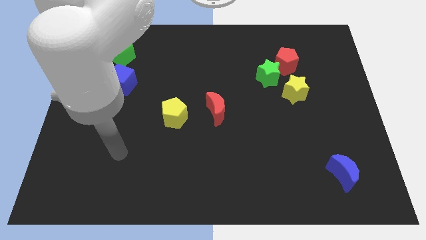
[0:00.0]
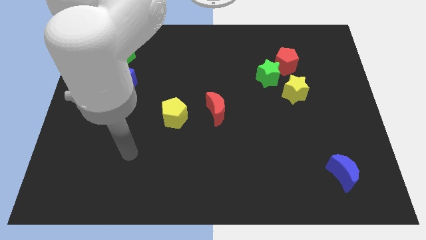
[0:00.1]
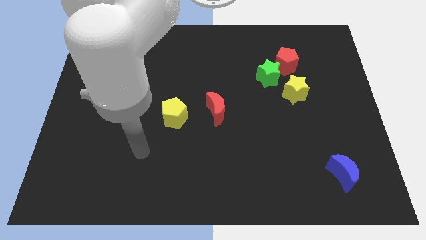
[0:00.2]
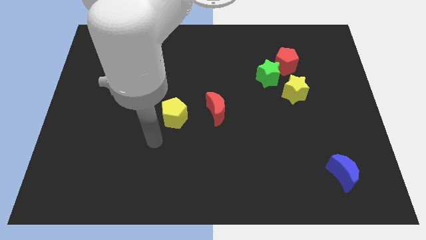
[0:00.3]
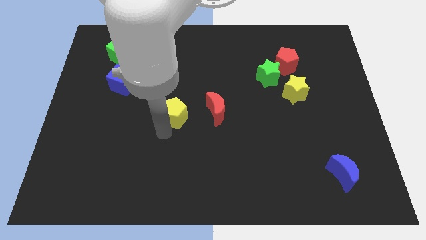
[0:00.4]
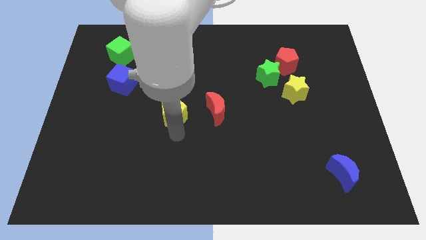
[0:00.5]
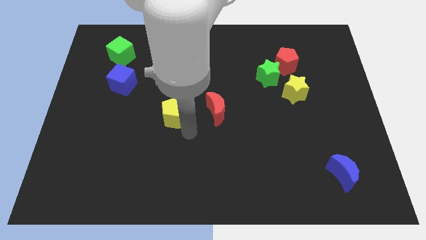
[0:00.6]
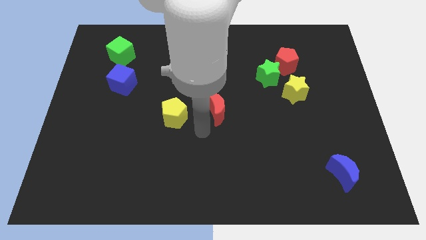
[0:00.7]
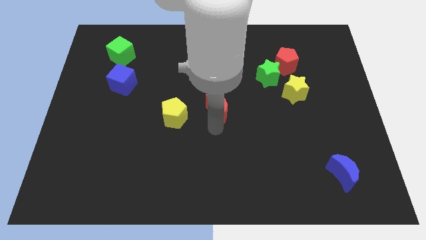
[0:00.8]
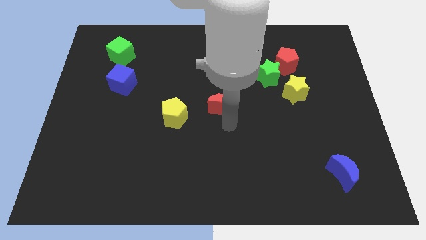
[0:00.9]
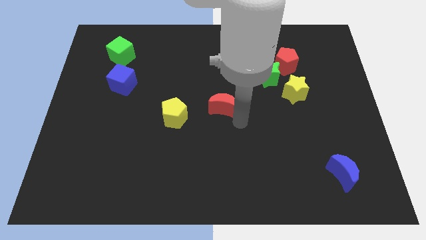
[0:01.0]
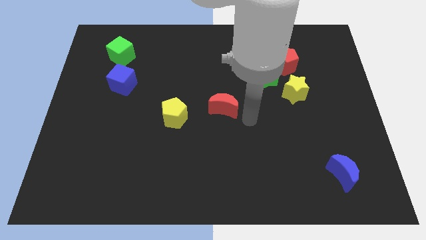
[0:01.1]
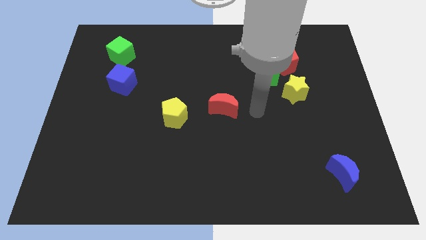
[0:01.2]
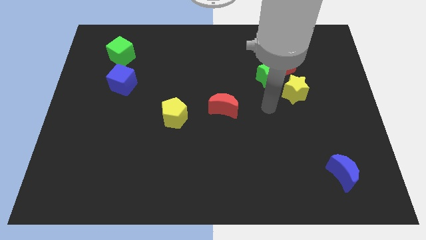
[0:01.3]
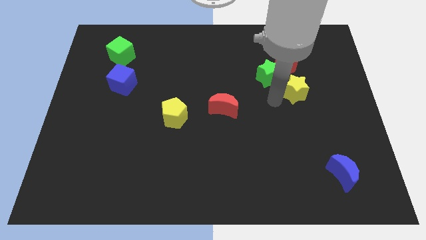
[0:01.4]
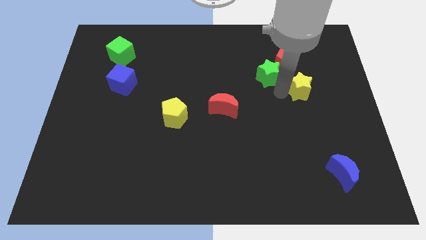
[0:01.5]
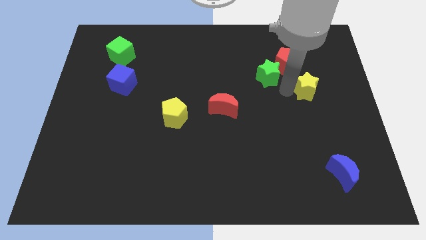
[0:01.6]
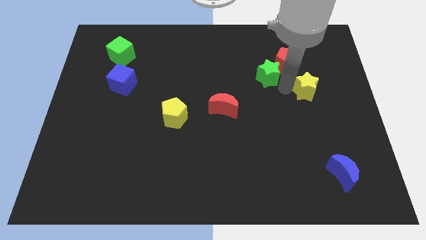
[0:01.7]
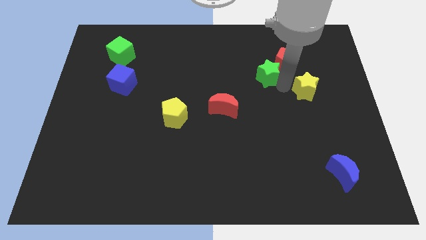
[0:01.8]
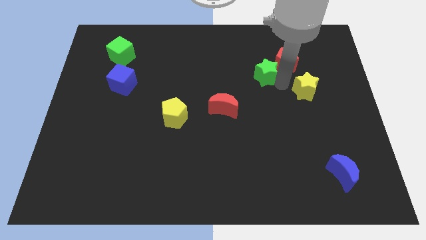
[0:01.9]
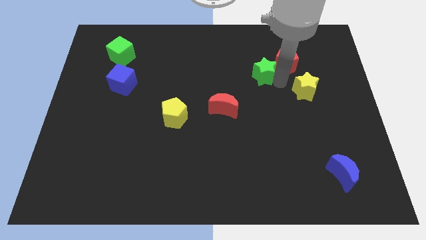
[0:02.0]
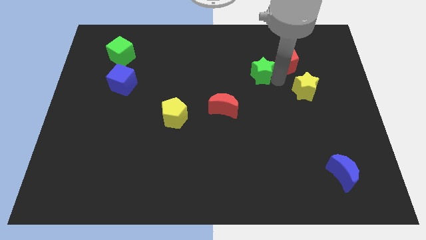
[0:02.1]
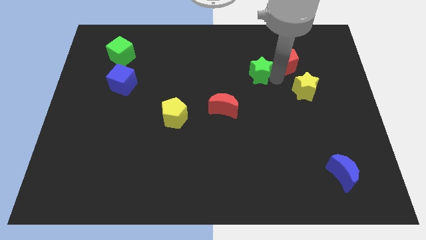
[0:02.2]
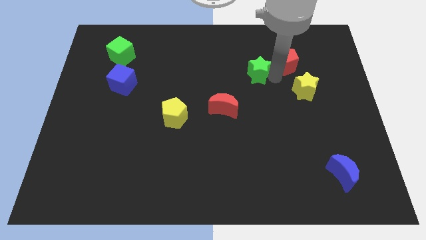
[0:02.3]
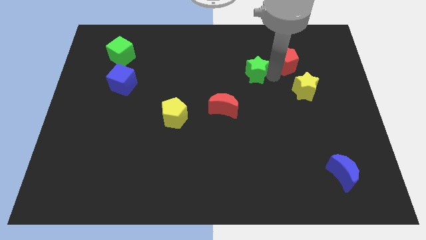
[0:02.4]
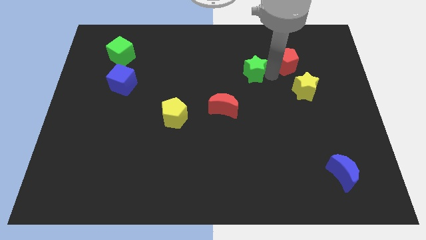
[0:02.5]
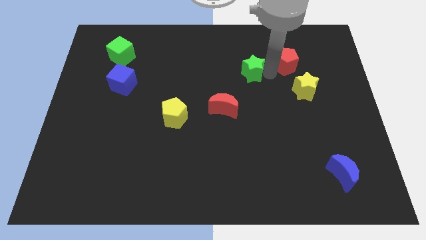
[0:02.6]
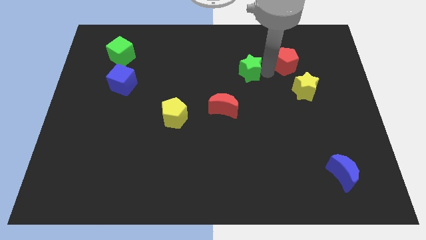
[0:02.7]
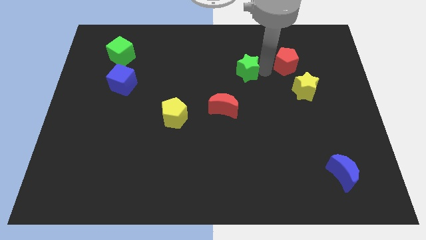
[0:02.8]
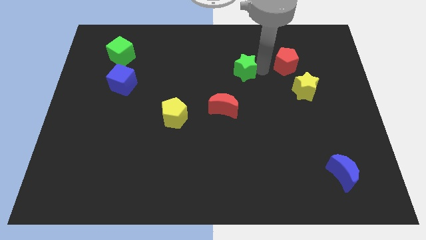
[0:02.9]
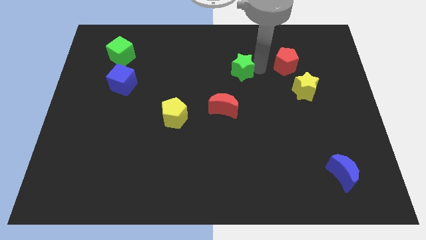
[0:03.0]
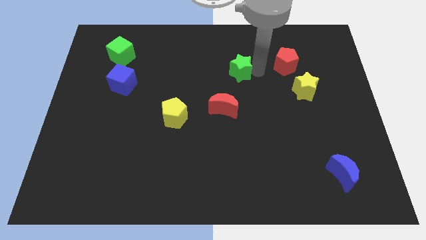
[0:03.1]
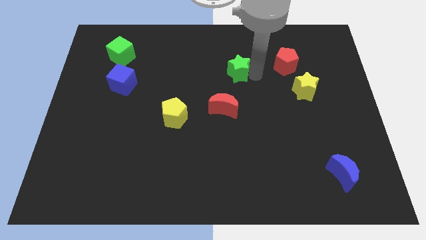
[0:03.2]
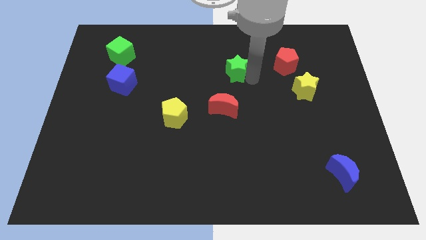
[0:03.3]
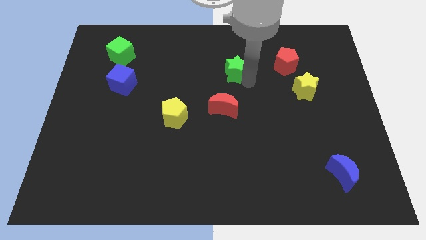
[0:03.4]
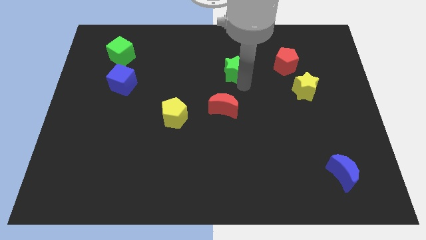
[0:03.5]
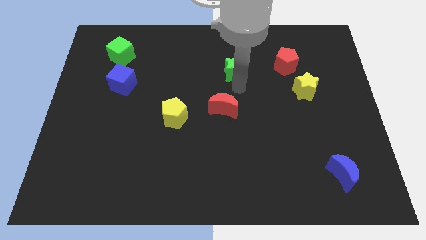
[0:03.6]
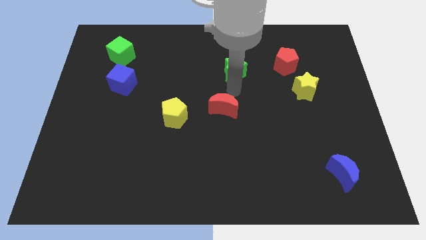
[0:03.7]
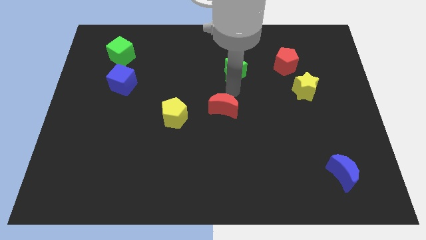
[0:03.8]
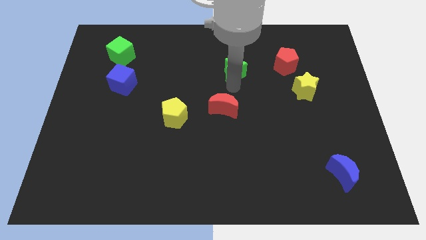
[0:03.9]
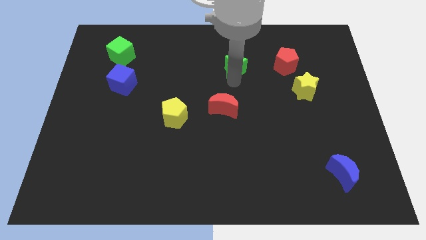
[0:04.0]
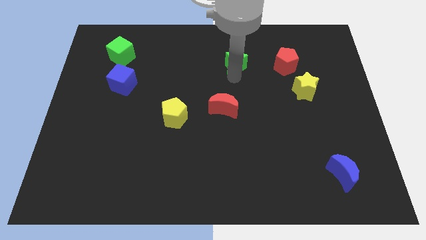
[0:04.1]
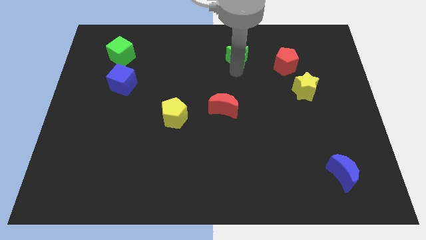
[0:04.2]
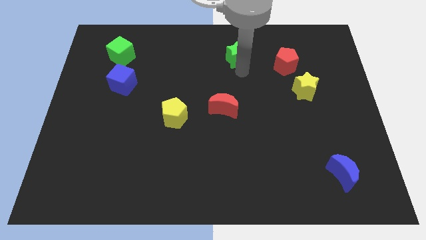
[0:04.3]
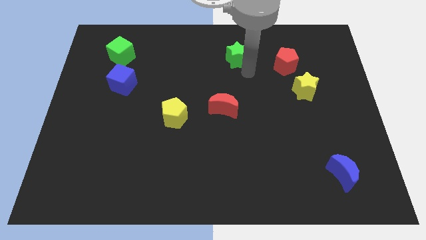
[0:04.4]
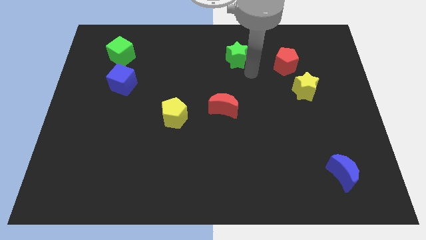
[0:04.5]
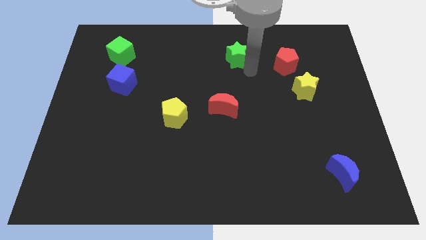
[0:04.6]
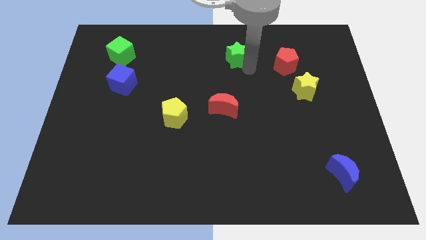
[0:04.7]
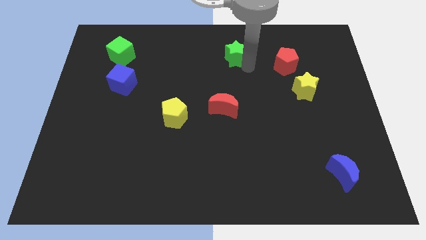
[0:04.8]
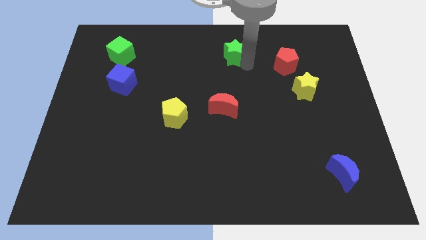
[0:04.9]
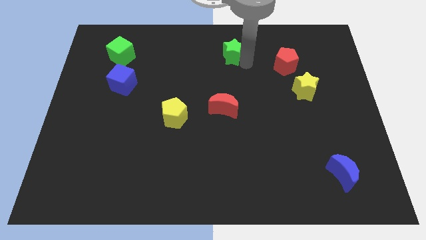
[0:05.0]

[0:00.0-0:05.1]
move the green star to the top side

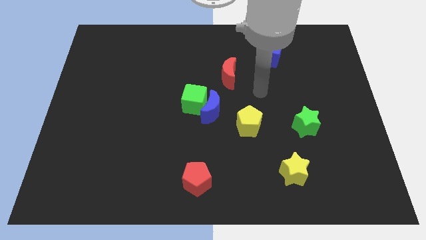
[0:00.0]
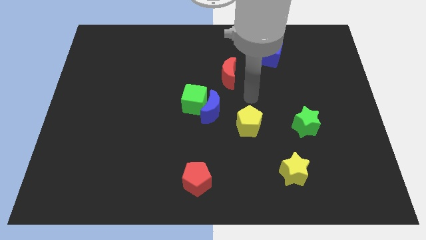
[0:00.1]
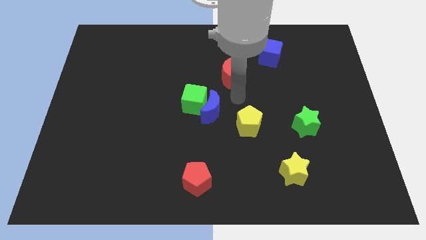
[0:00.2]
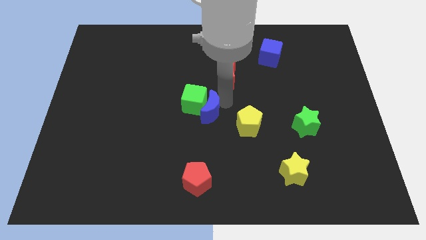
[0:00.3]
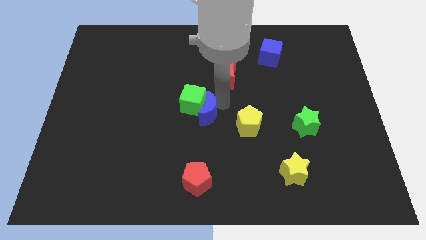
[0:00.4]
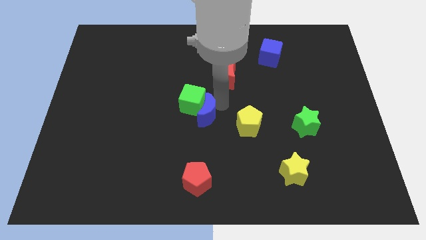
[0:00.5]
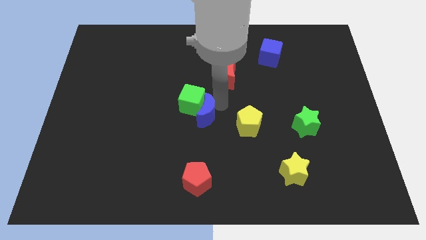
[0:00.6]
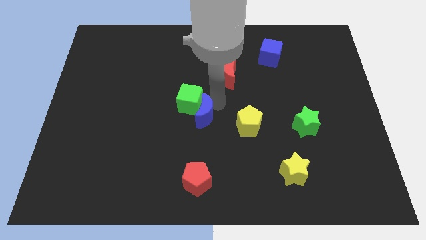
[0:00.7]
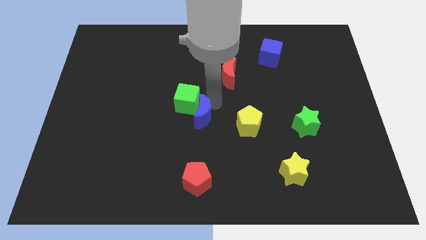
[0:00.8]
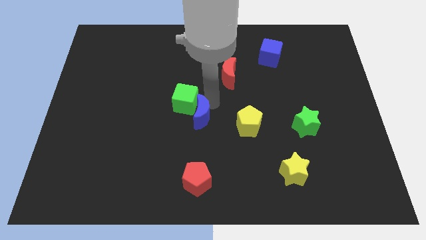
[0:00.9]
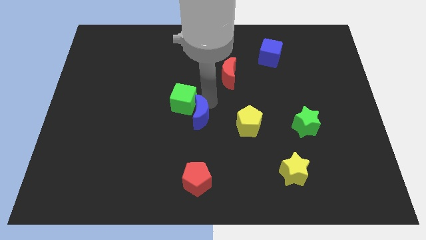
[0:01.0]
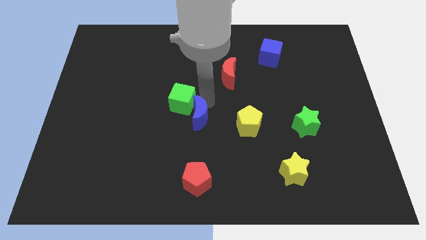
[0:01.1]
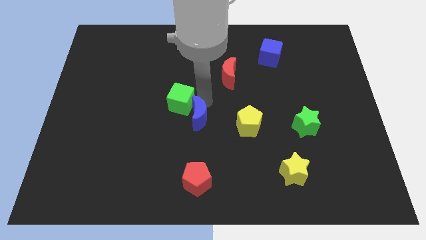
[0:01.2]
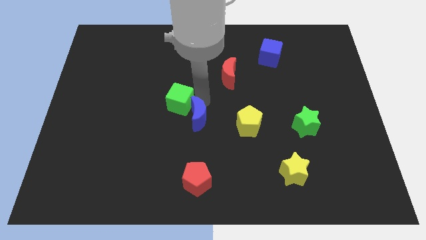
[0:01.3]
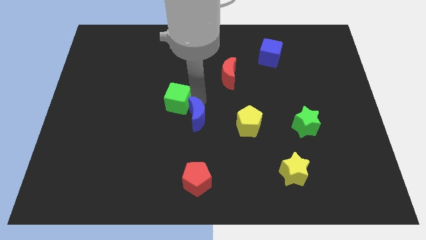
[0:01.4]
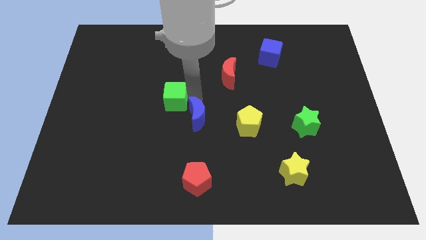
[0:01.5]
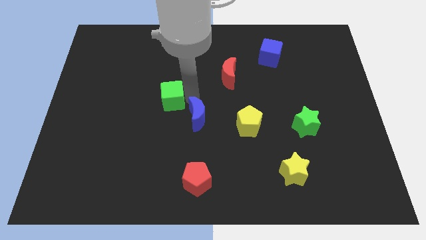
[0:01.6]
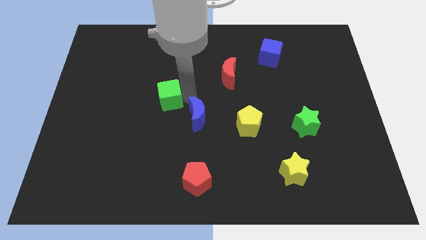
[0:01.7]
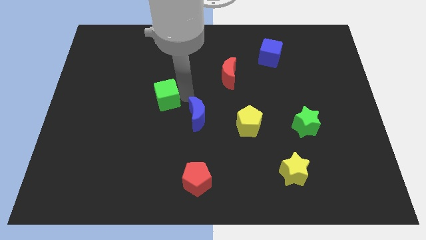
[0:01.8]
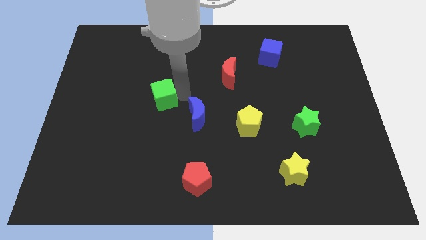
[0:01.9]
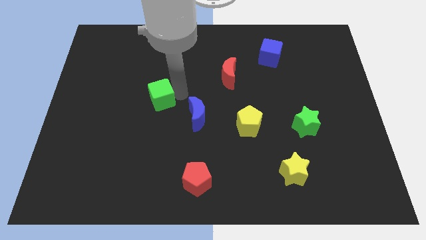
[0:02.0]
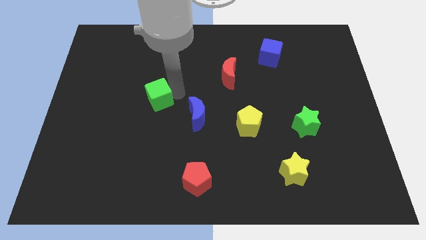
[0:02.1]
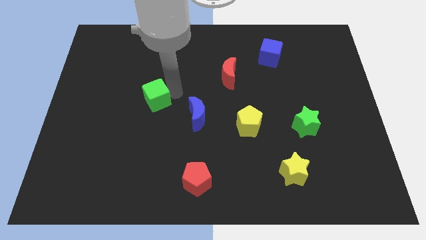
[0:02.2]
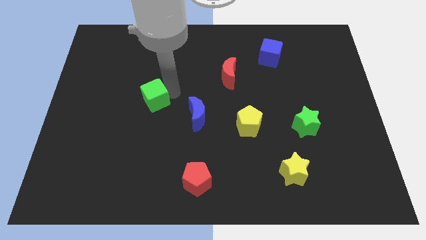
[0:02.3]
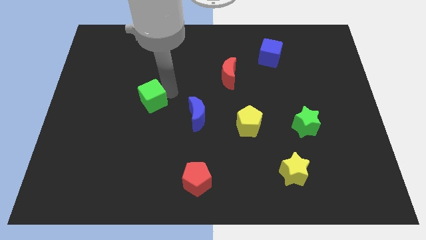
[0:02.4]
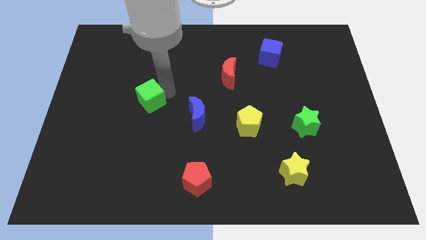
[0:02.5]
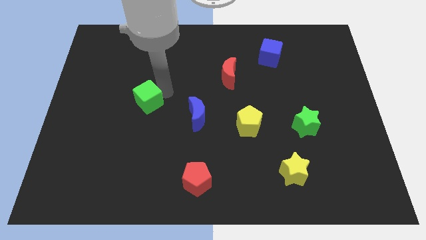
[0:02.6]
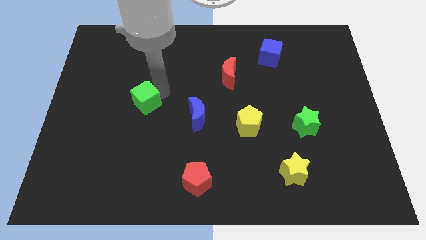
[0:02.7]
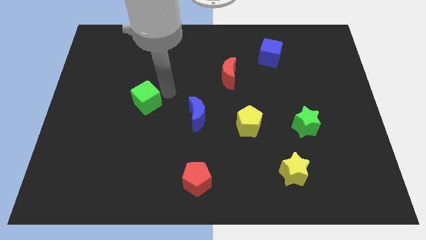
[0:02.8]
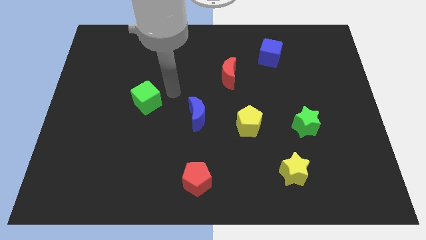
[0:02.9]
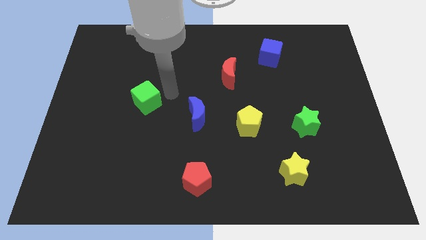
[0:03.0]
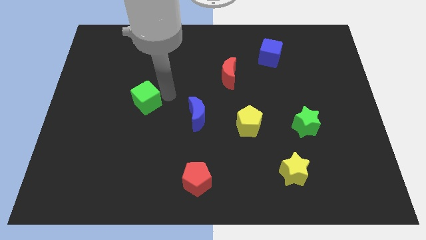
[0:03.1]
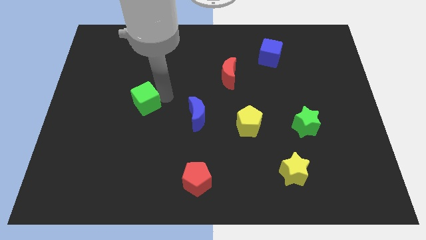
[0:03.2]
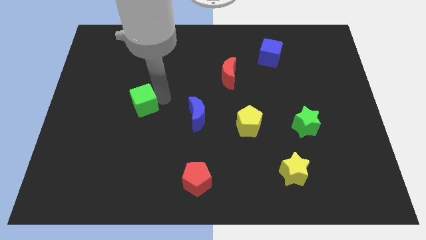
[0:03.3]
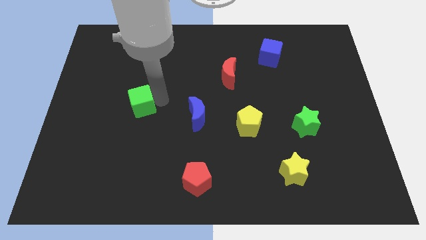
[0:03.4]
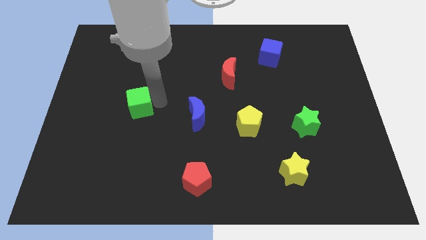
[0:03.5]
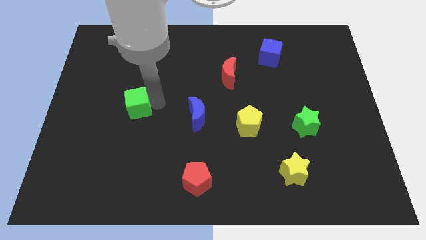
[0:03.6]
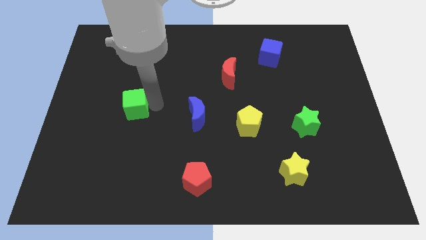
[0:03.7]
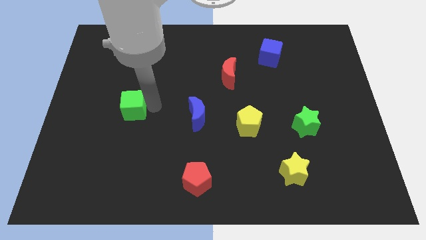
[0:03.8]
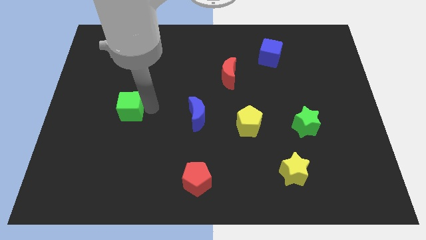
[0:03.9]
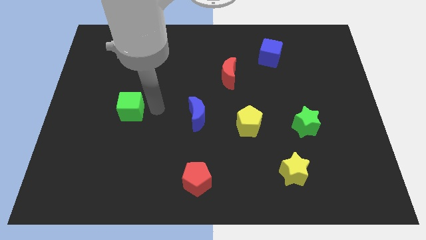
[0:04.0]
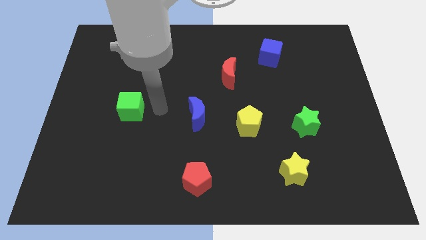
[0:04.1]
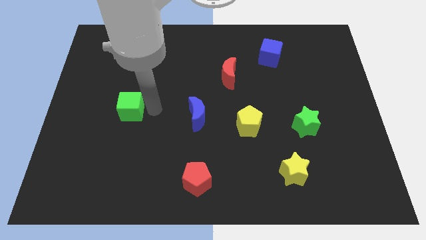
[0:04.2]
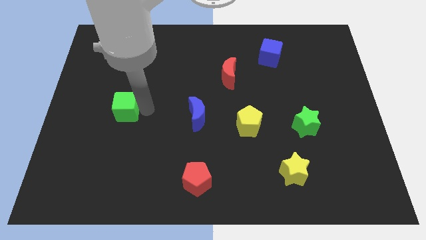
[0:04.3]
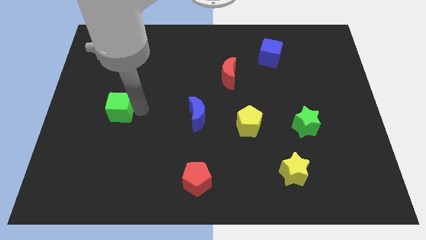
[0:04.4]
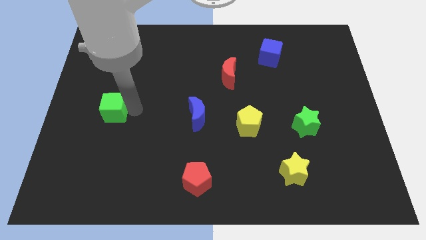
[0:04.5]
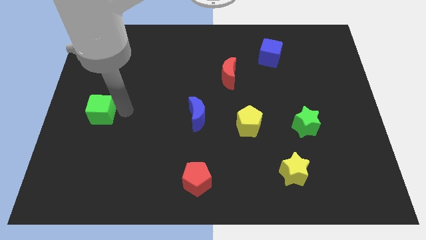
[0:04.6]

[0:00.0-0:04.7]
put the green cube to the left side
